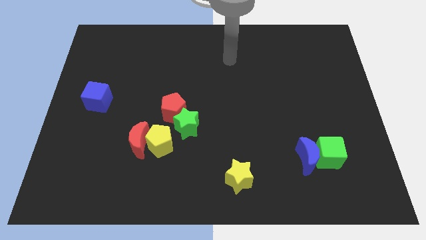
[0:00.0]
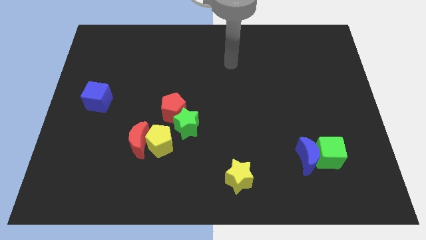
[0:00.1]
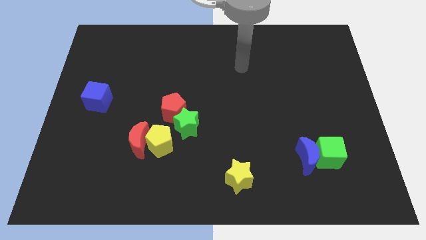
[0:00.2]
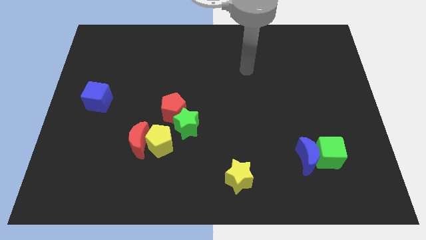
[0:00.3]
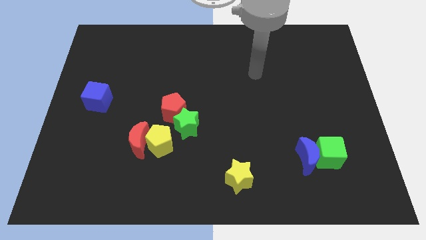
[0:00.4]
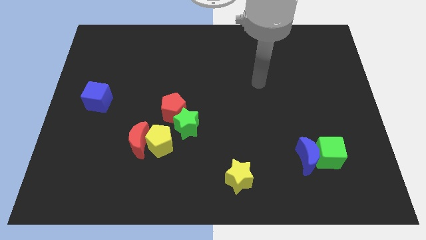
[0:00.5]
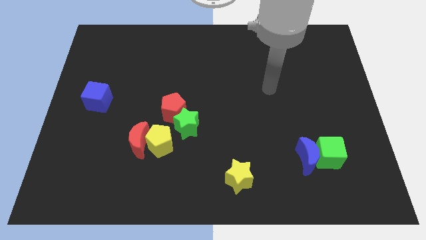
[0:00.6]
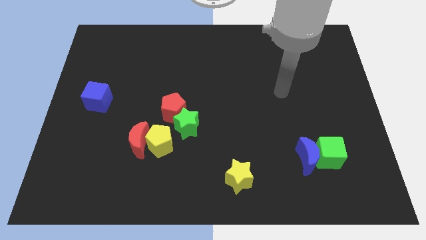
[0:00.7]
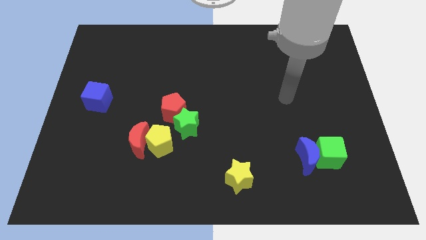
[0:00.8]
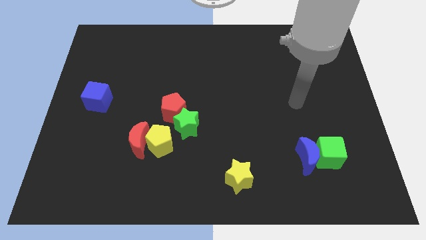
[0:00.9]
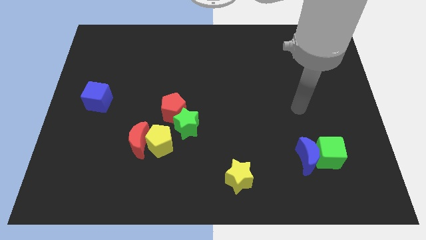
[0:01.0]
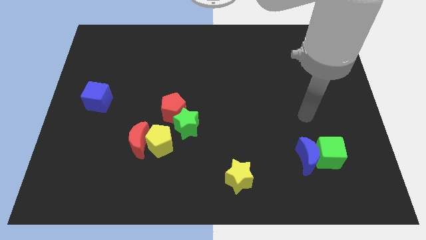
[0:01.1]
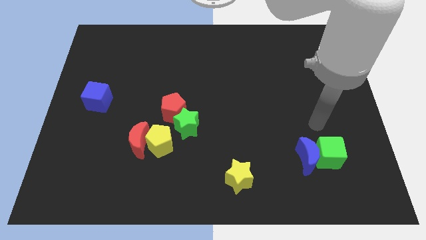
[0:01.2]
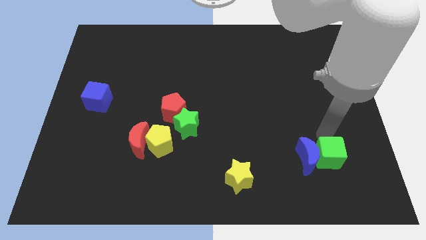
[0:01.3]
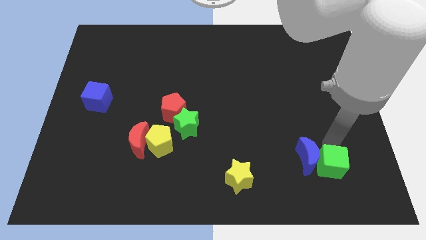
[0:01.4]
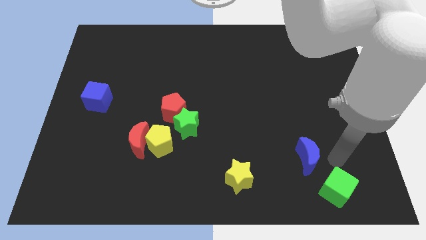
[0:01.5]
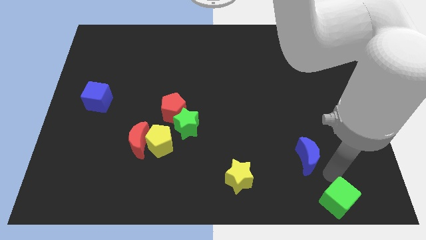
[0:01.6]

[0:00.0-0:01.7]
separate the blue moon from the green cube

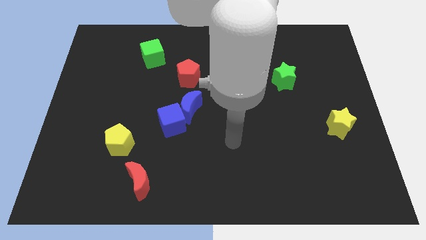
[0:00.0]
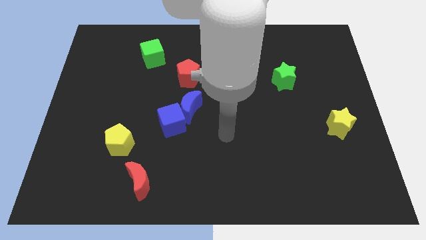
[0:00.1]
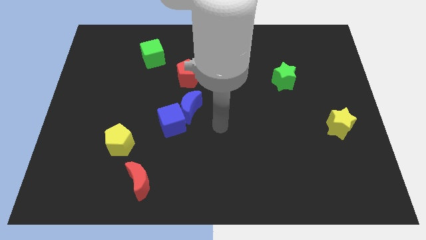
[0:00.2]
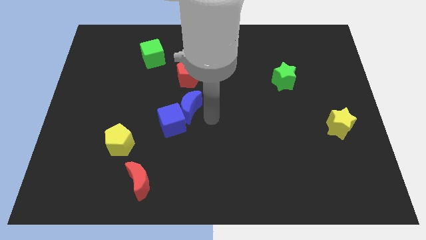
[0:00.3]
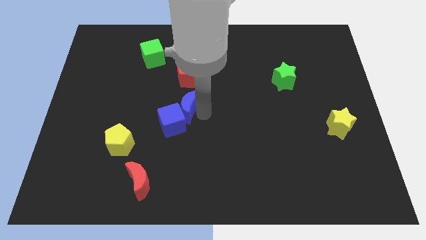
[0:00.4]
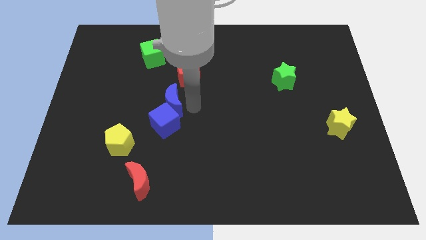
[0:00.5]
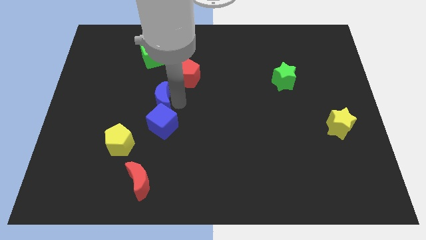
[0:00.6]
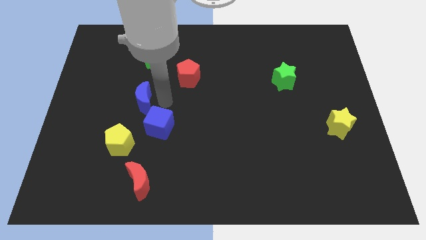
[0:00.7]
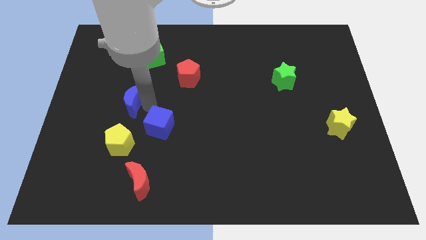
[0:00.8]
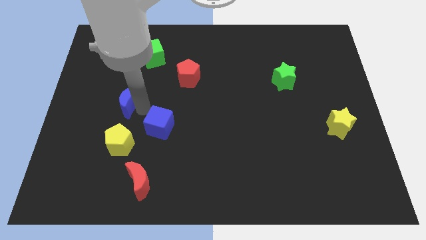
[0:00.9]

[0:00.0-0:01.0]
move the blue cube away from the blue moon

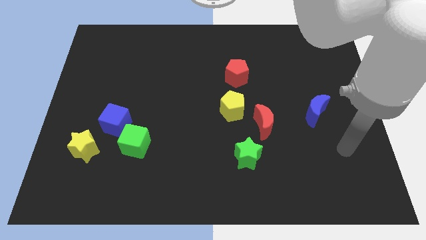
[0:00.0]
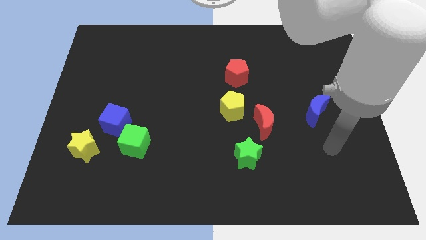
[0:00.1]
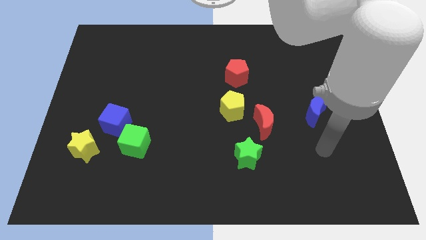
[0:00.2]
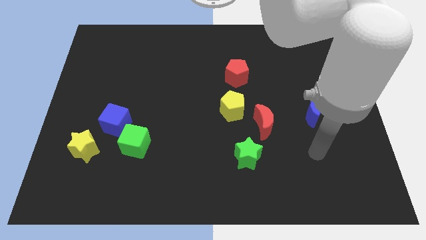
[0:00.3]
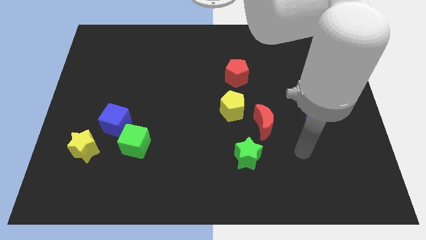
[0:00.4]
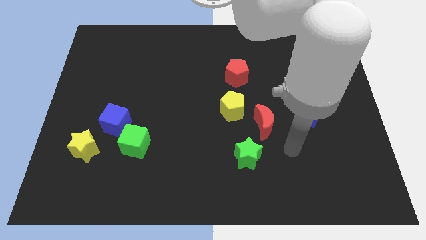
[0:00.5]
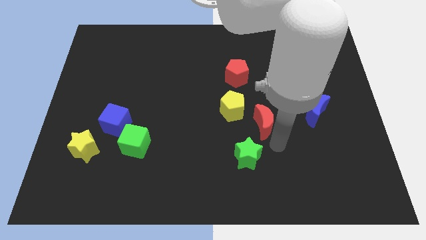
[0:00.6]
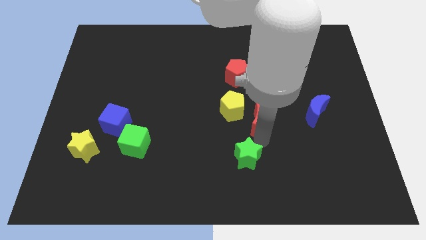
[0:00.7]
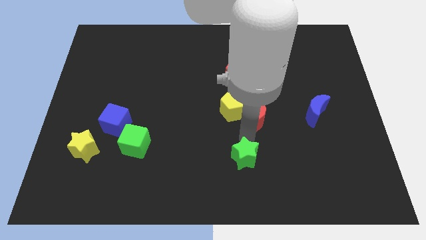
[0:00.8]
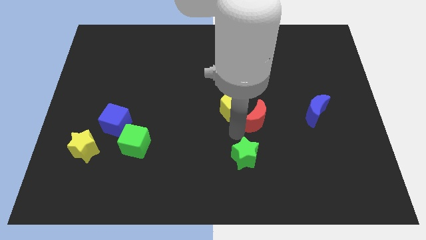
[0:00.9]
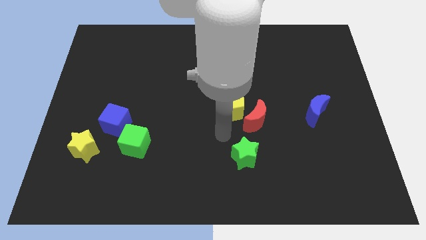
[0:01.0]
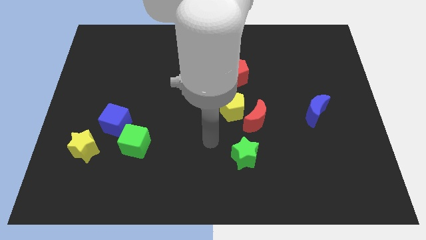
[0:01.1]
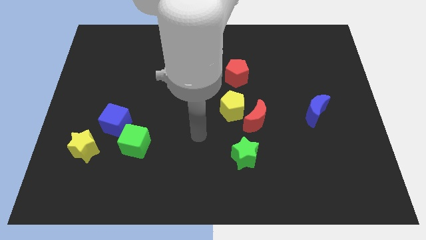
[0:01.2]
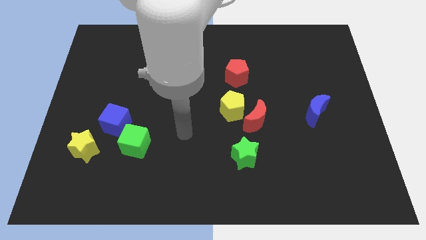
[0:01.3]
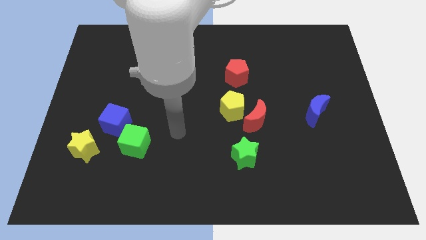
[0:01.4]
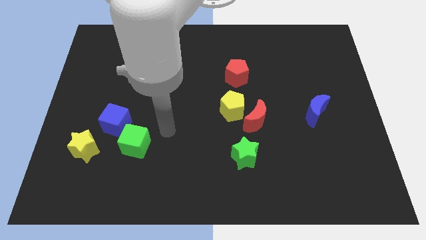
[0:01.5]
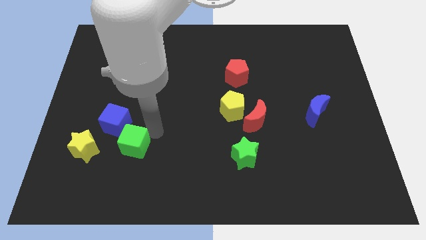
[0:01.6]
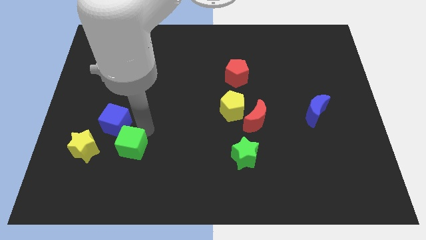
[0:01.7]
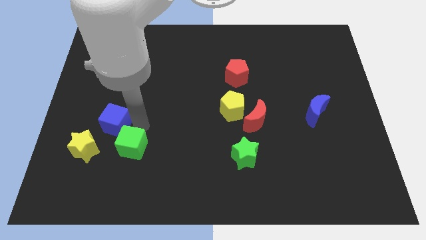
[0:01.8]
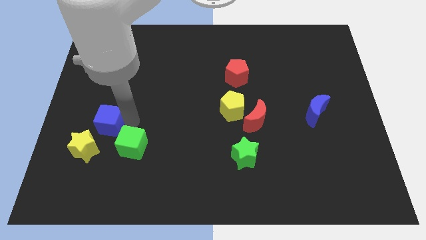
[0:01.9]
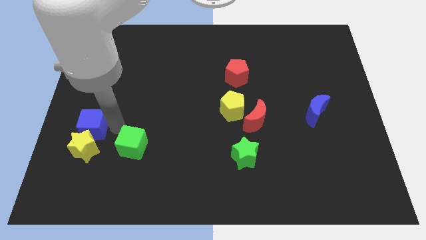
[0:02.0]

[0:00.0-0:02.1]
separate the green cube from the blue cube

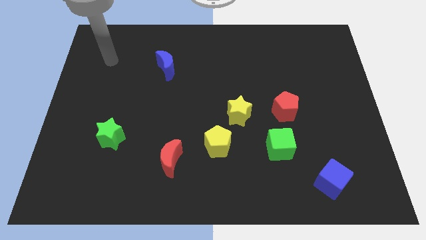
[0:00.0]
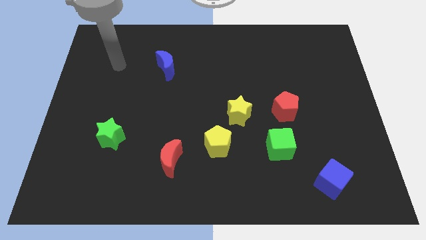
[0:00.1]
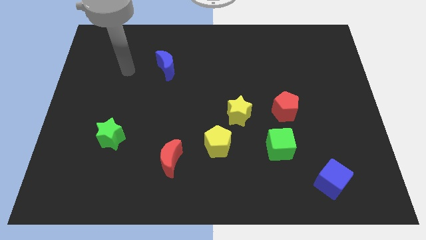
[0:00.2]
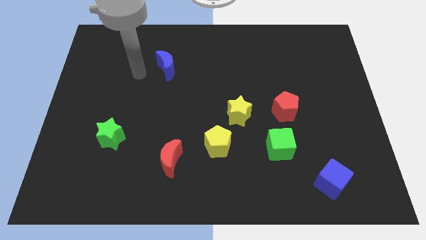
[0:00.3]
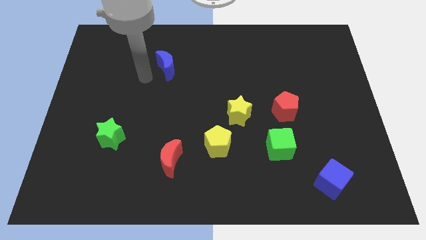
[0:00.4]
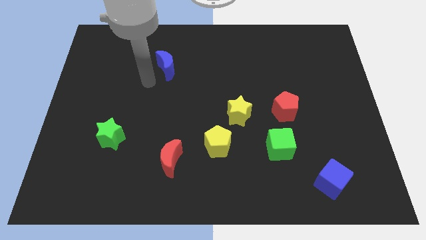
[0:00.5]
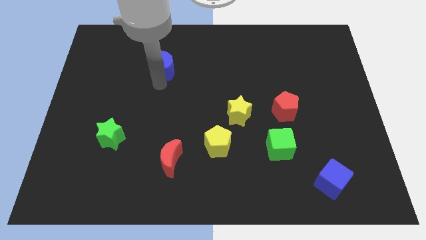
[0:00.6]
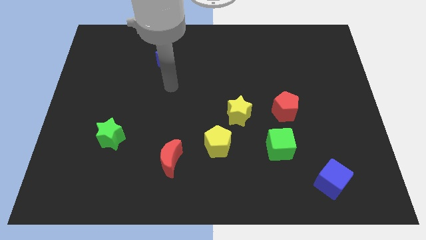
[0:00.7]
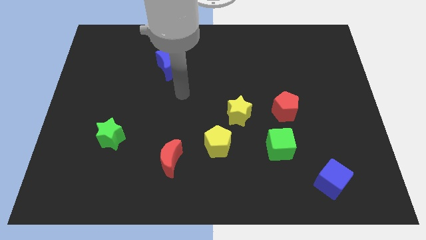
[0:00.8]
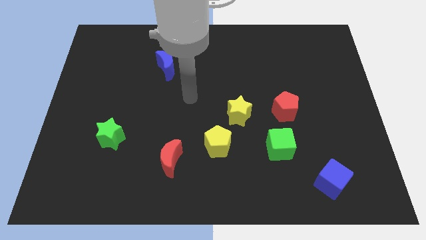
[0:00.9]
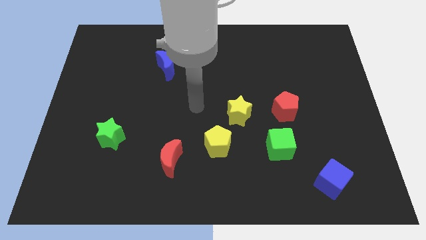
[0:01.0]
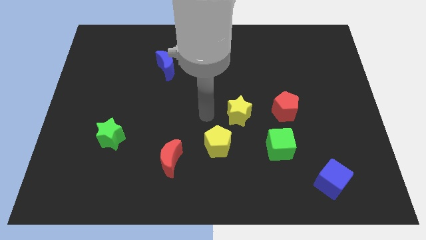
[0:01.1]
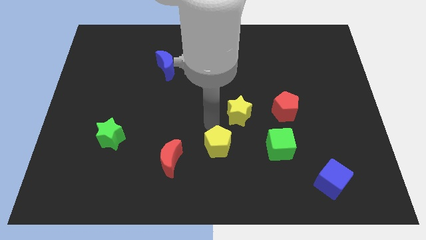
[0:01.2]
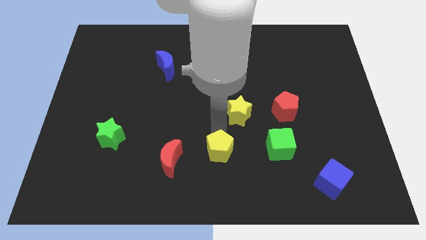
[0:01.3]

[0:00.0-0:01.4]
pull the yellow star apart from the yellow pentagon

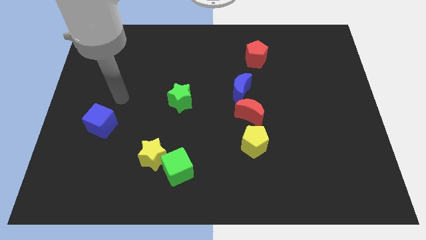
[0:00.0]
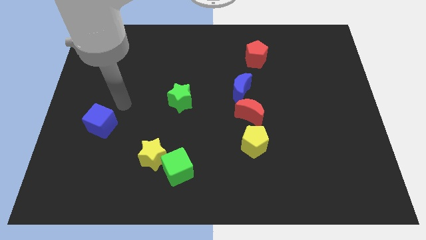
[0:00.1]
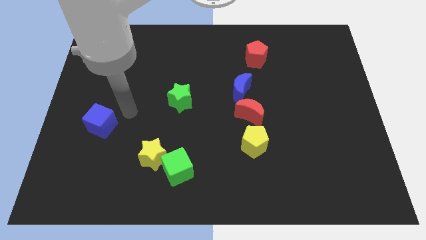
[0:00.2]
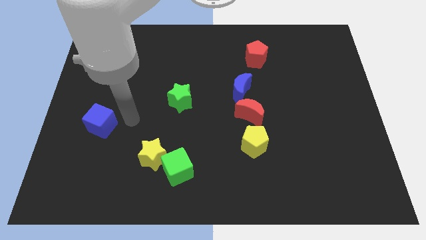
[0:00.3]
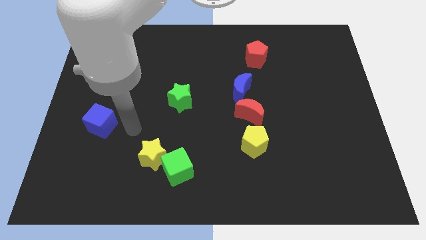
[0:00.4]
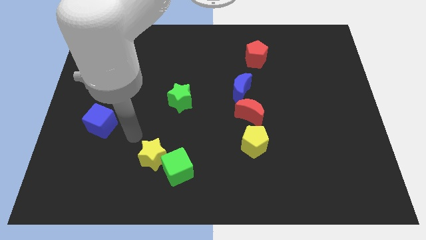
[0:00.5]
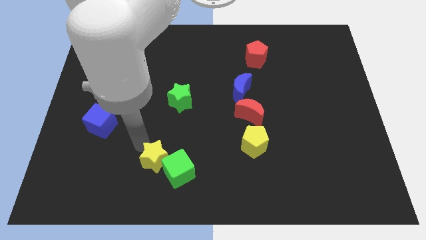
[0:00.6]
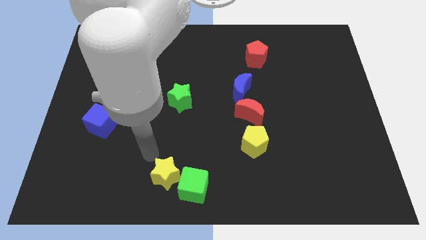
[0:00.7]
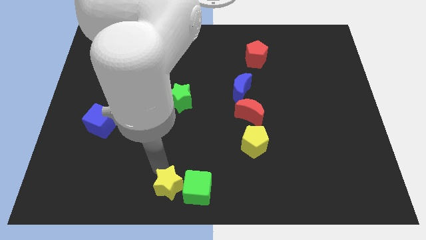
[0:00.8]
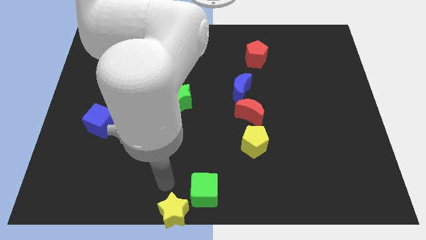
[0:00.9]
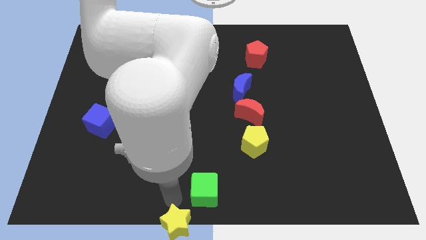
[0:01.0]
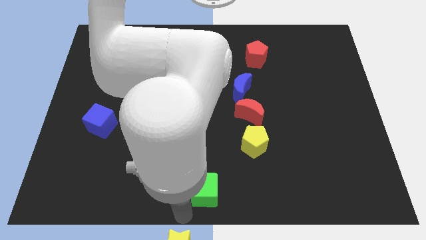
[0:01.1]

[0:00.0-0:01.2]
separate the green cube from the yellow star

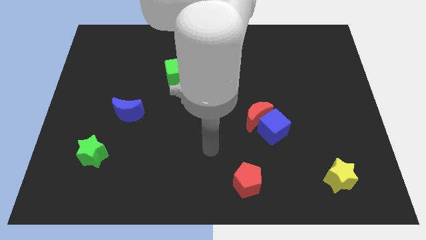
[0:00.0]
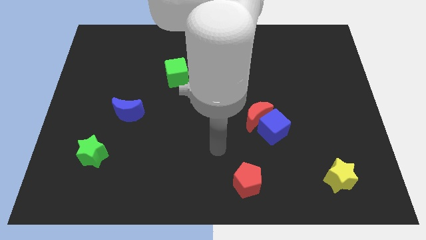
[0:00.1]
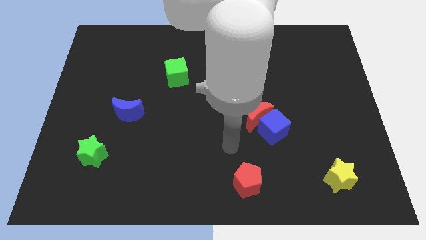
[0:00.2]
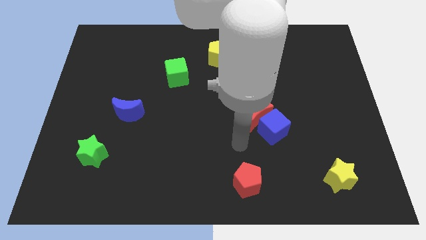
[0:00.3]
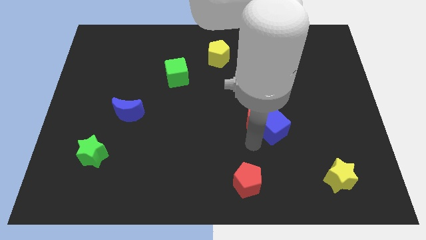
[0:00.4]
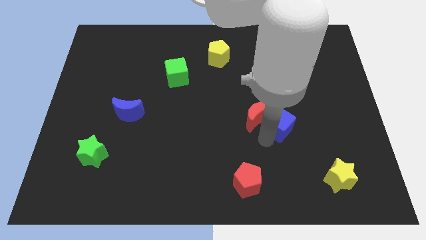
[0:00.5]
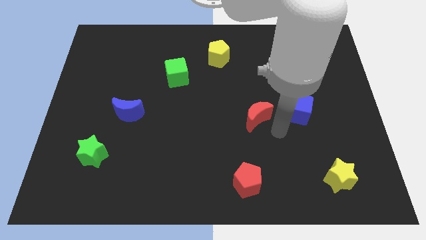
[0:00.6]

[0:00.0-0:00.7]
pull the red moon apart from the blue cube

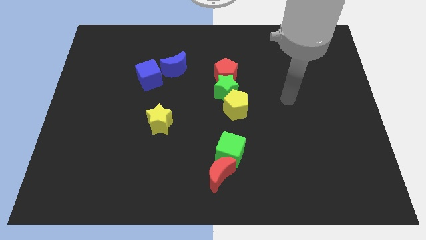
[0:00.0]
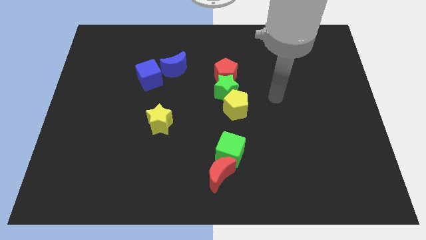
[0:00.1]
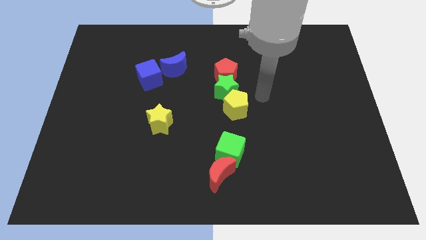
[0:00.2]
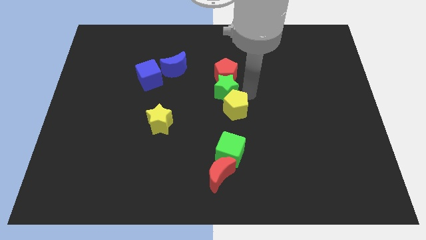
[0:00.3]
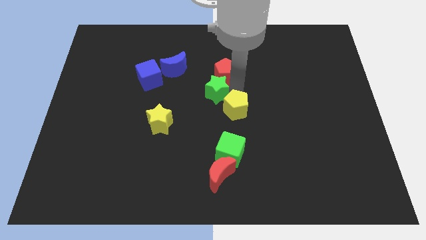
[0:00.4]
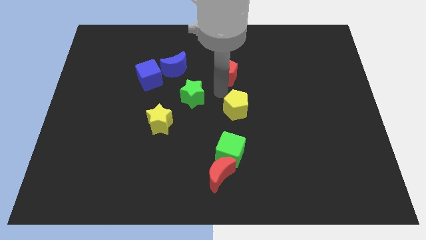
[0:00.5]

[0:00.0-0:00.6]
move the yellow pentagon away from the green star

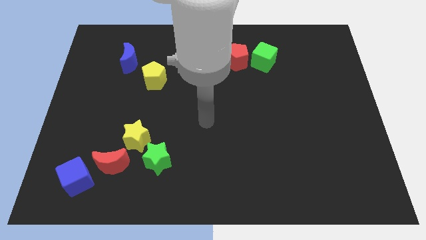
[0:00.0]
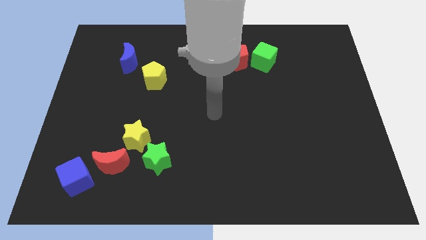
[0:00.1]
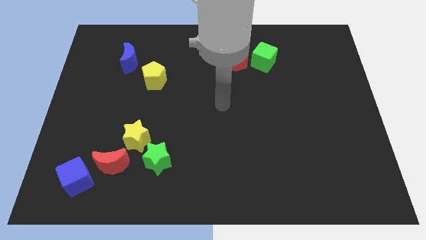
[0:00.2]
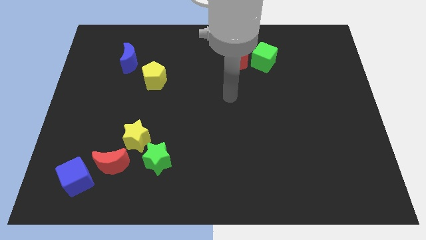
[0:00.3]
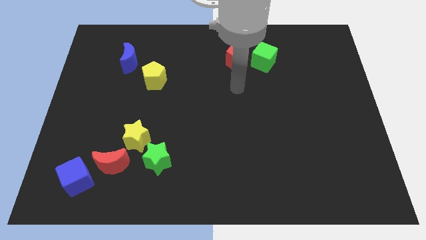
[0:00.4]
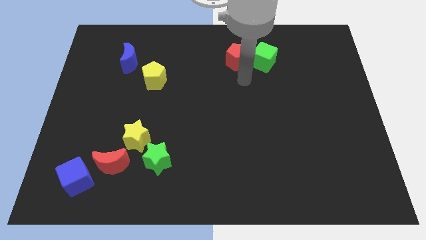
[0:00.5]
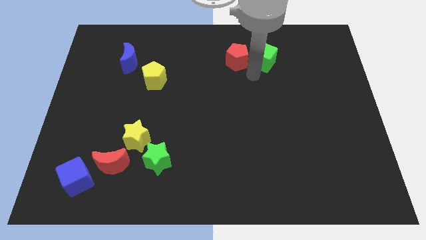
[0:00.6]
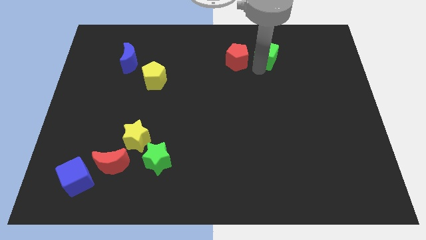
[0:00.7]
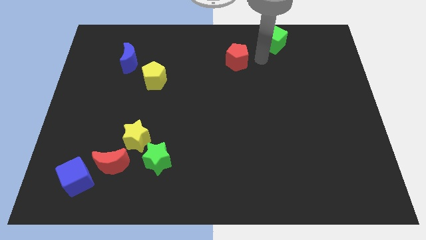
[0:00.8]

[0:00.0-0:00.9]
move the red pentagon away from the green cube
